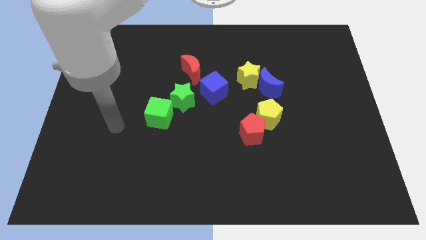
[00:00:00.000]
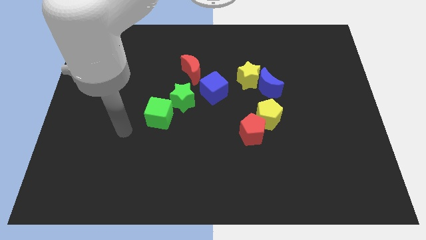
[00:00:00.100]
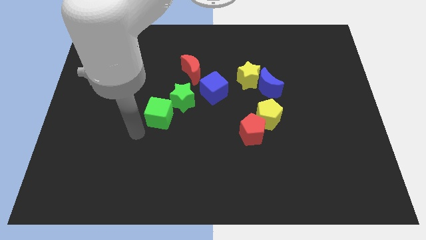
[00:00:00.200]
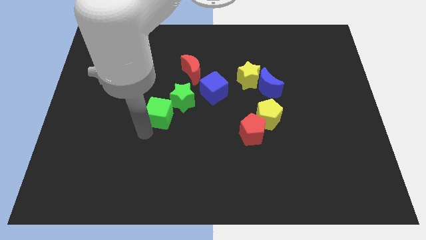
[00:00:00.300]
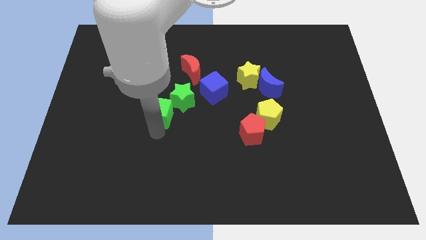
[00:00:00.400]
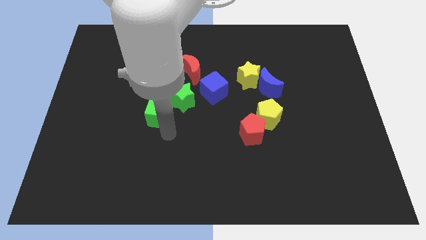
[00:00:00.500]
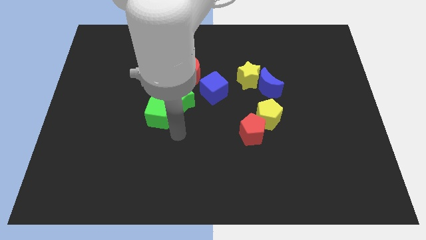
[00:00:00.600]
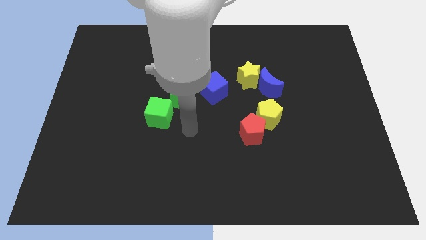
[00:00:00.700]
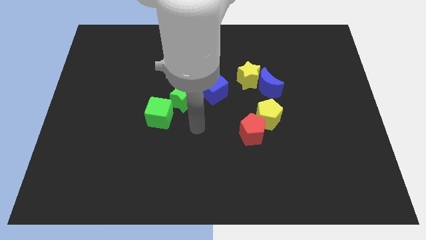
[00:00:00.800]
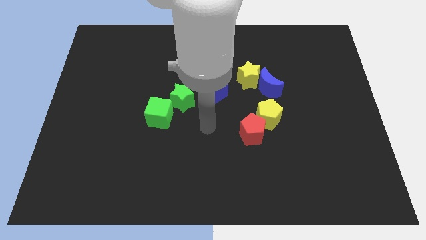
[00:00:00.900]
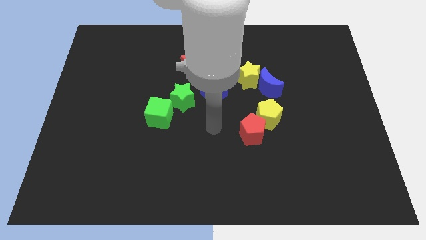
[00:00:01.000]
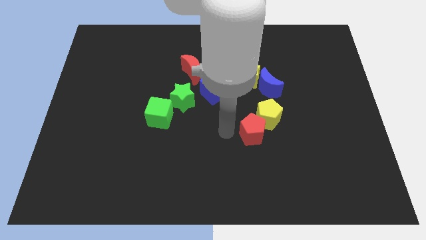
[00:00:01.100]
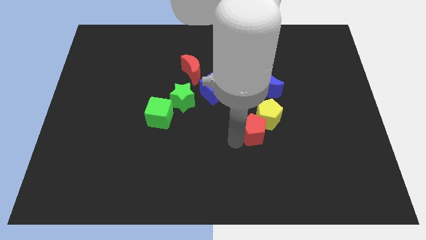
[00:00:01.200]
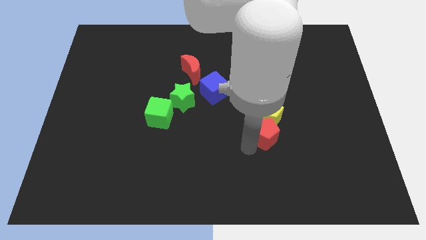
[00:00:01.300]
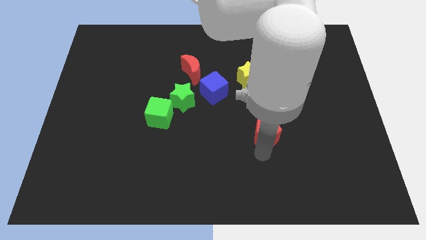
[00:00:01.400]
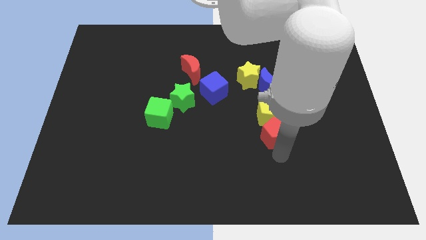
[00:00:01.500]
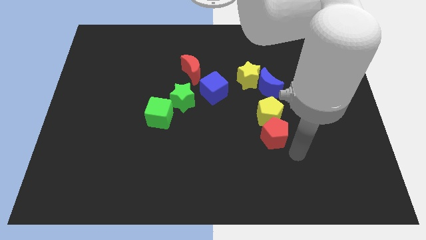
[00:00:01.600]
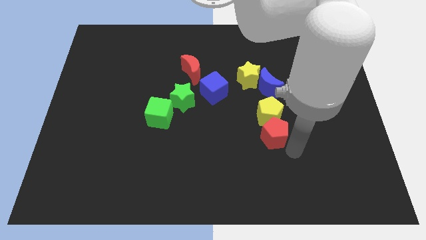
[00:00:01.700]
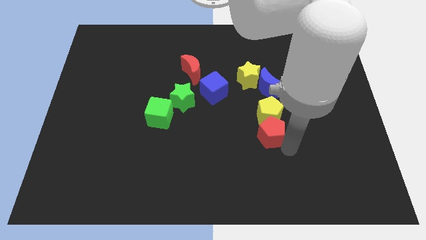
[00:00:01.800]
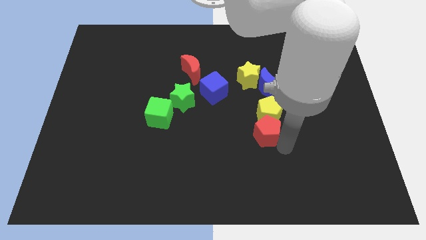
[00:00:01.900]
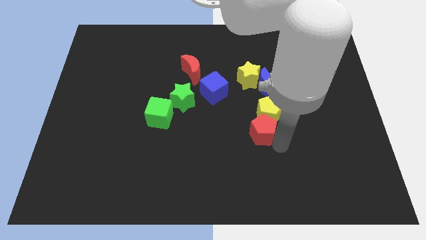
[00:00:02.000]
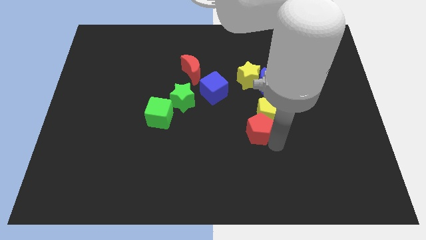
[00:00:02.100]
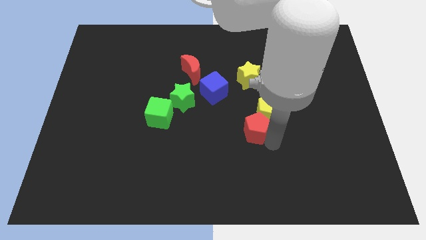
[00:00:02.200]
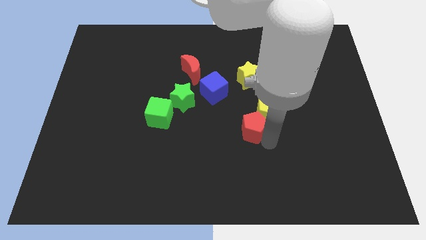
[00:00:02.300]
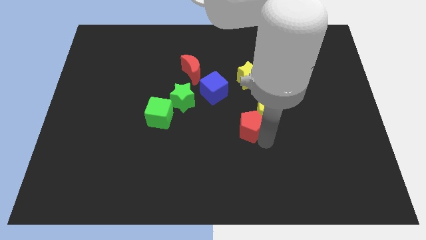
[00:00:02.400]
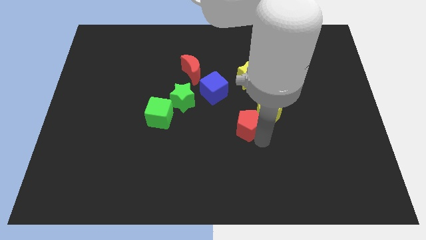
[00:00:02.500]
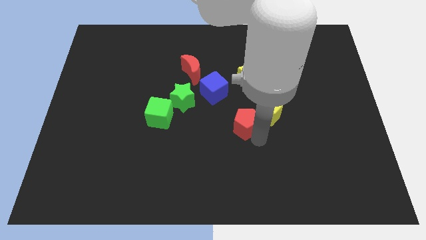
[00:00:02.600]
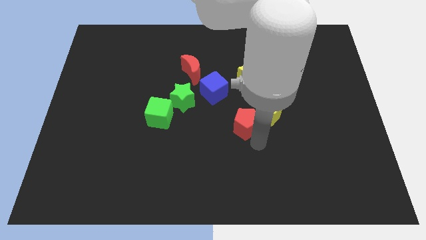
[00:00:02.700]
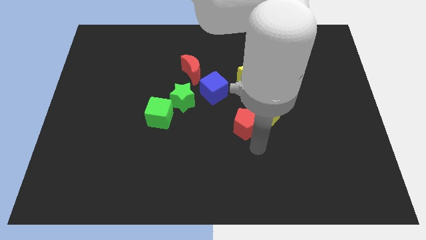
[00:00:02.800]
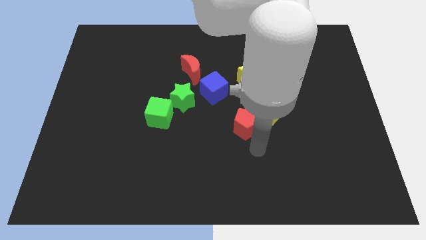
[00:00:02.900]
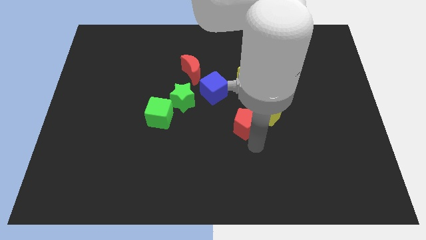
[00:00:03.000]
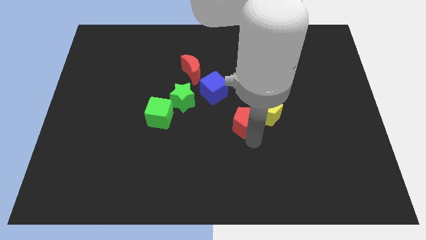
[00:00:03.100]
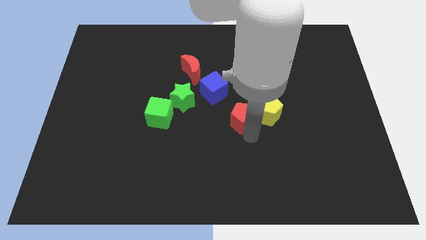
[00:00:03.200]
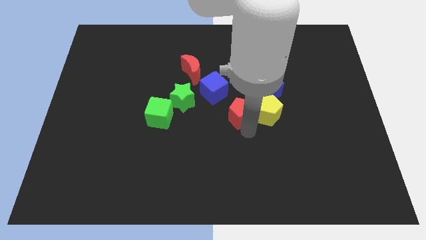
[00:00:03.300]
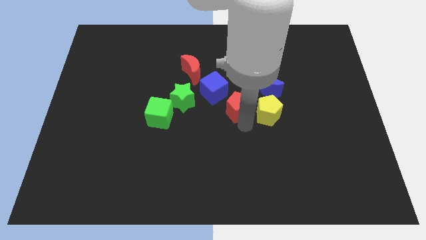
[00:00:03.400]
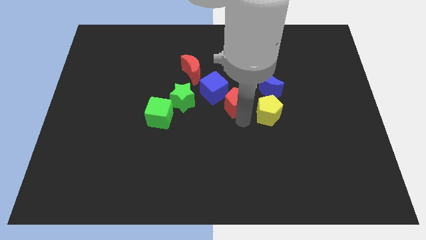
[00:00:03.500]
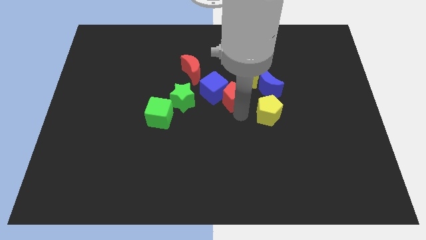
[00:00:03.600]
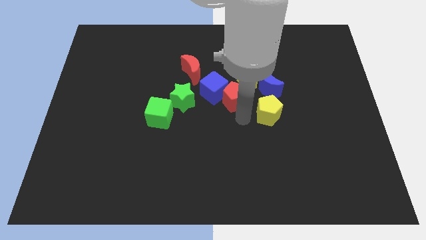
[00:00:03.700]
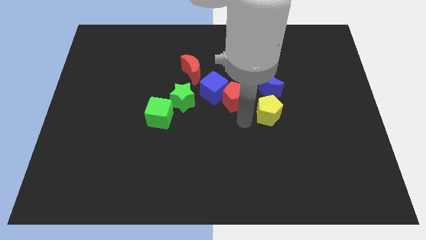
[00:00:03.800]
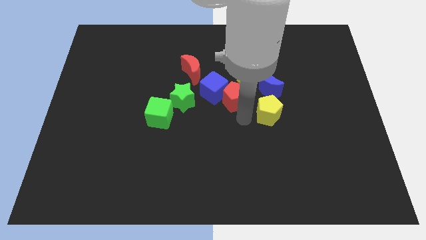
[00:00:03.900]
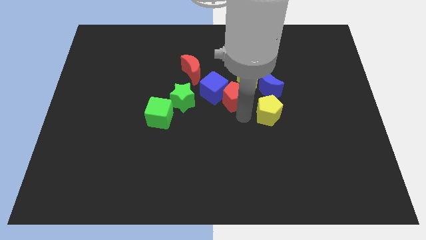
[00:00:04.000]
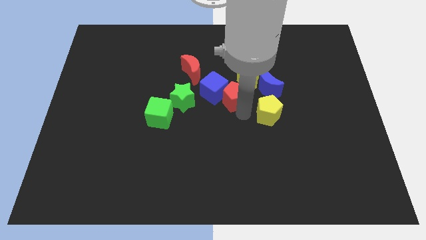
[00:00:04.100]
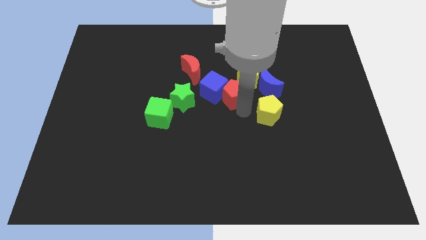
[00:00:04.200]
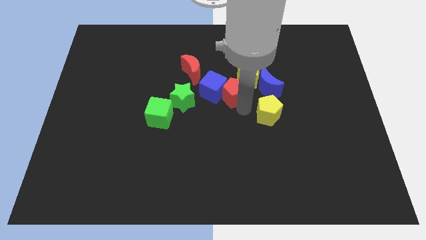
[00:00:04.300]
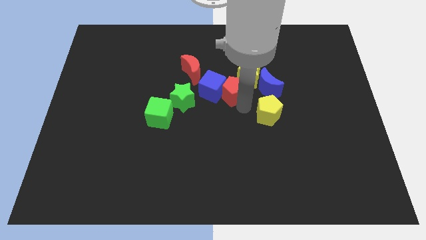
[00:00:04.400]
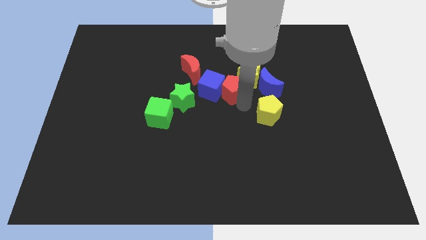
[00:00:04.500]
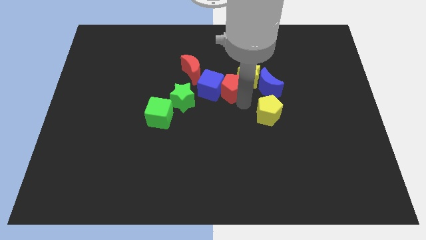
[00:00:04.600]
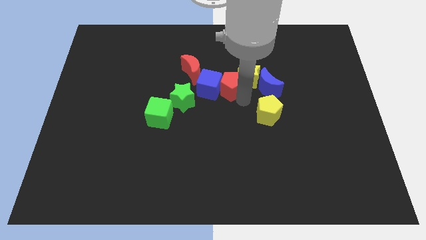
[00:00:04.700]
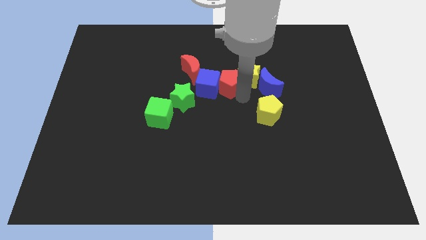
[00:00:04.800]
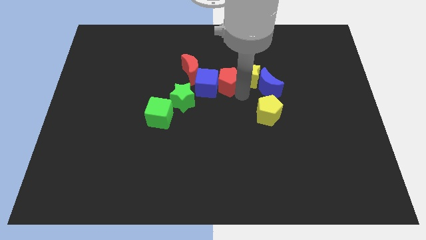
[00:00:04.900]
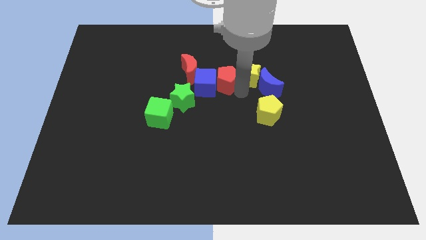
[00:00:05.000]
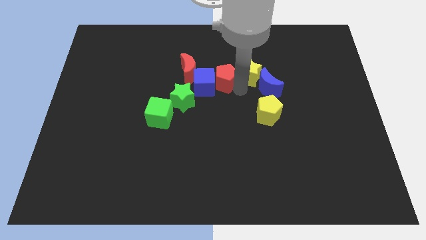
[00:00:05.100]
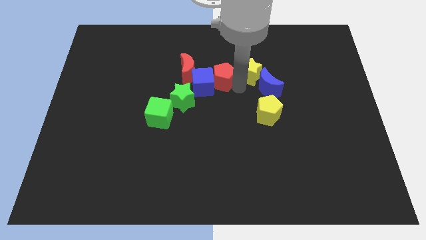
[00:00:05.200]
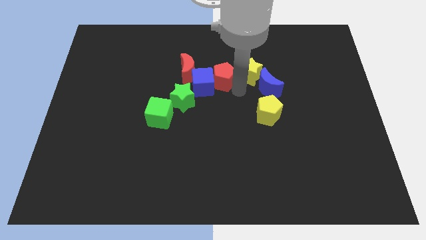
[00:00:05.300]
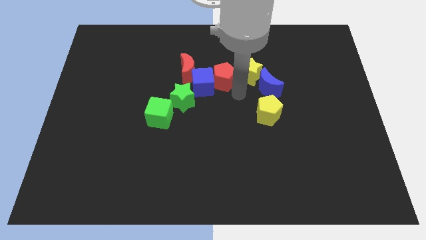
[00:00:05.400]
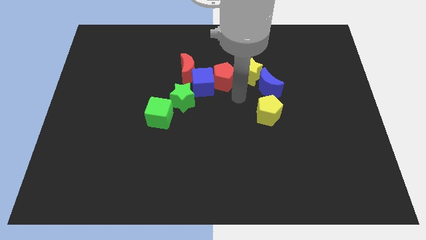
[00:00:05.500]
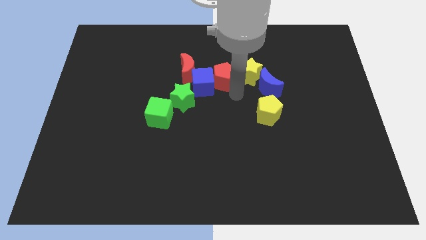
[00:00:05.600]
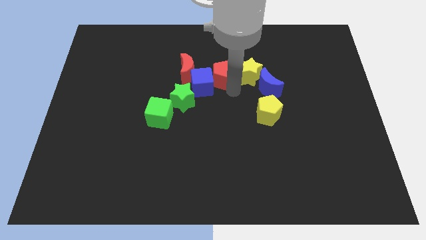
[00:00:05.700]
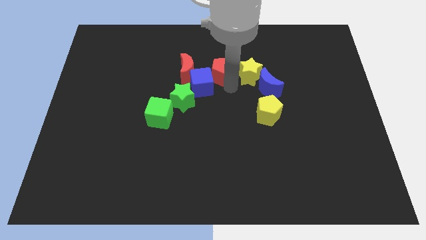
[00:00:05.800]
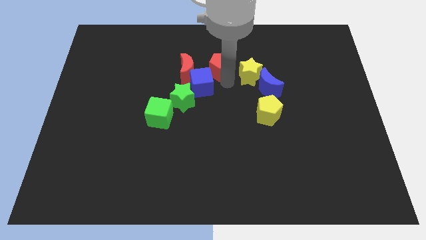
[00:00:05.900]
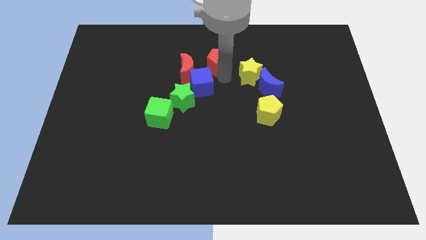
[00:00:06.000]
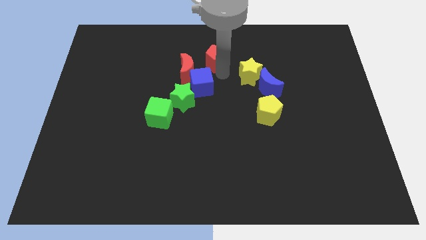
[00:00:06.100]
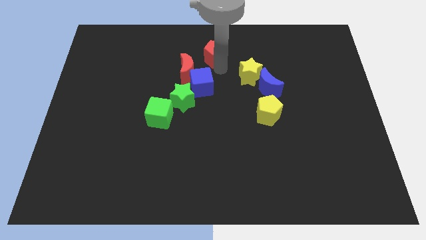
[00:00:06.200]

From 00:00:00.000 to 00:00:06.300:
push the red pentagon to the towards your base

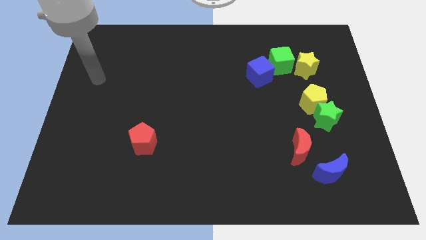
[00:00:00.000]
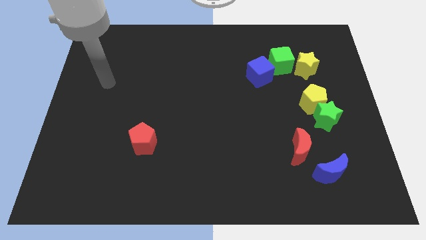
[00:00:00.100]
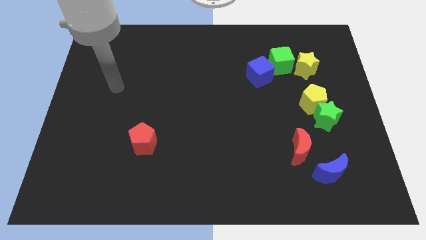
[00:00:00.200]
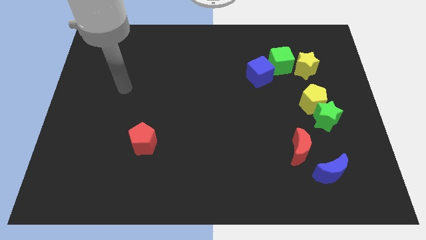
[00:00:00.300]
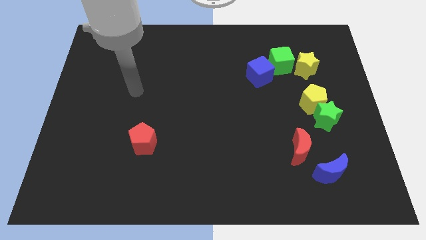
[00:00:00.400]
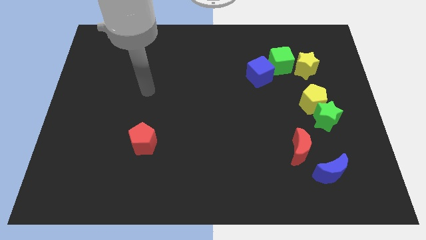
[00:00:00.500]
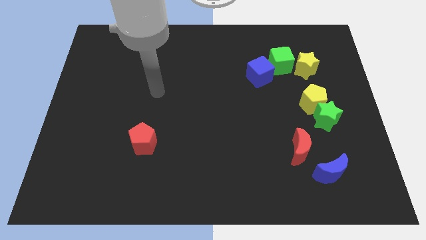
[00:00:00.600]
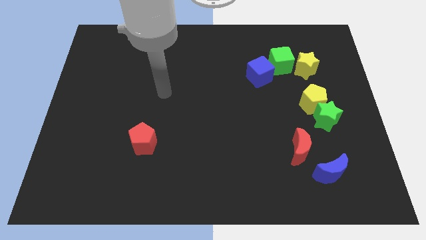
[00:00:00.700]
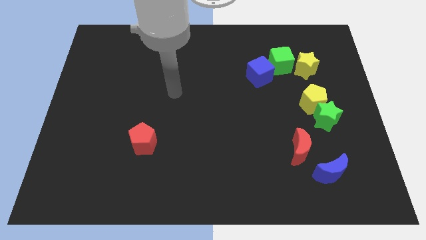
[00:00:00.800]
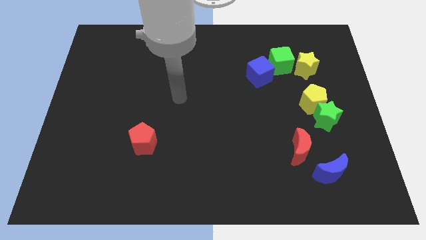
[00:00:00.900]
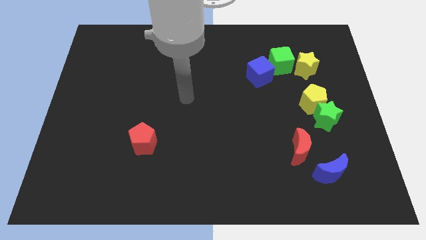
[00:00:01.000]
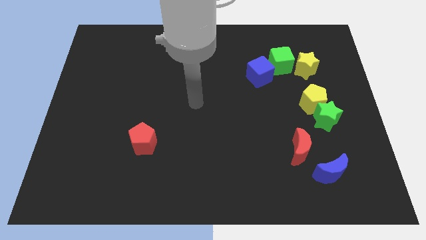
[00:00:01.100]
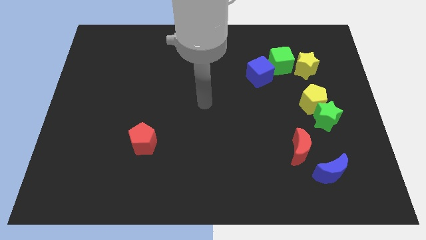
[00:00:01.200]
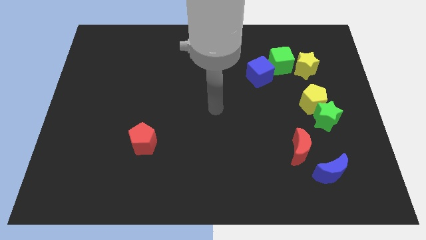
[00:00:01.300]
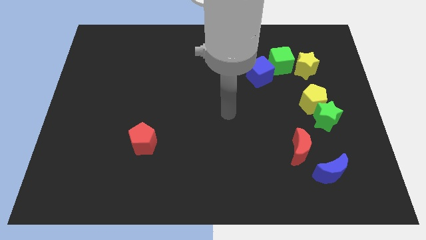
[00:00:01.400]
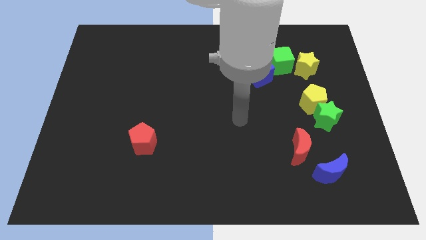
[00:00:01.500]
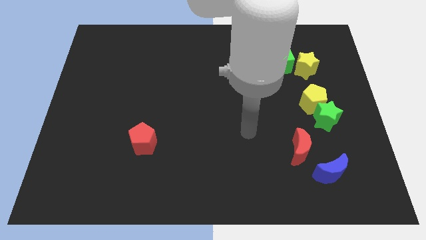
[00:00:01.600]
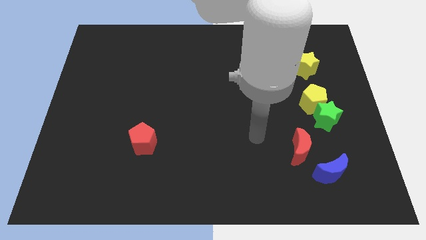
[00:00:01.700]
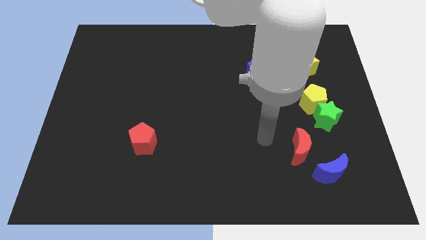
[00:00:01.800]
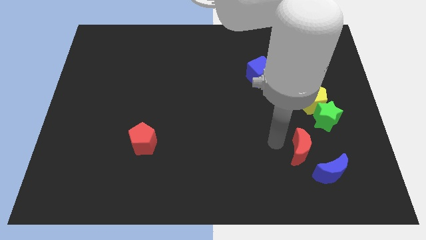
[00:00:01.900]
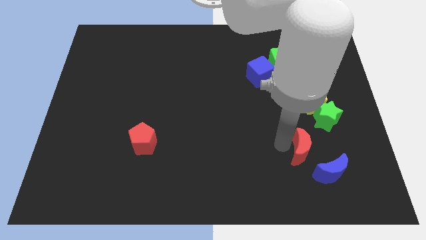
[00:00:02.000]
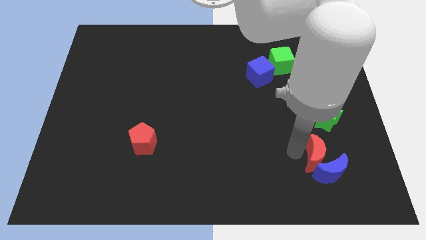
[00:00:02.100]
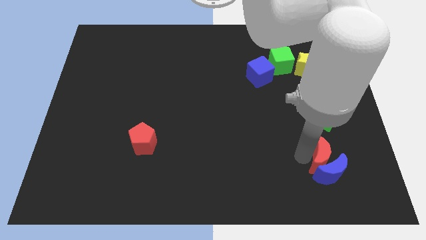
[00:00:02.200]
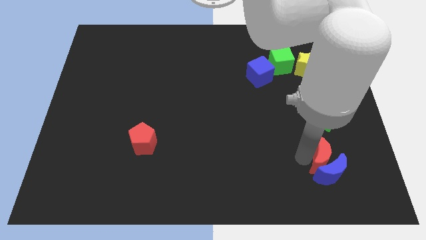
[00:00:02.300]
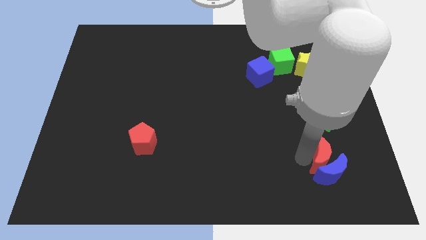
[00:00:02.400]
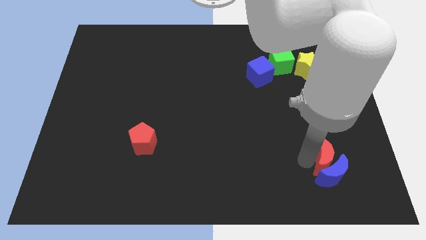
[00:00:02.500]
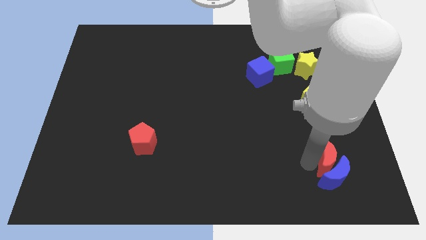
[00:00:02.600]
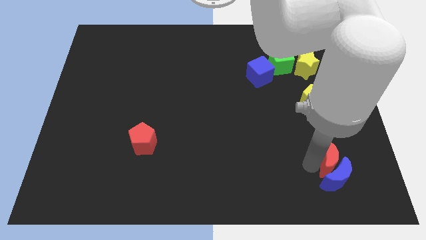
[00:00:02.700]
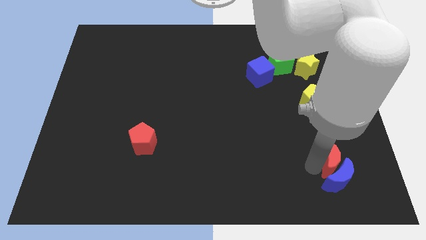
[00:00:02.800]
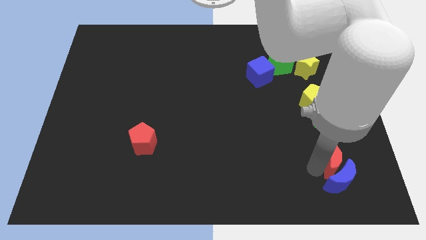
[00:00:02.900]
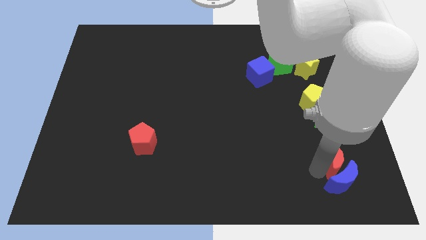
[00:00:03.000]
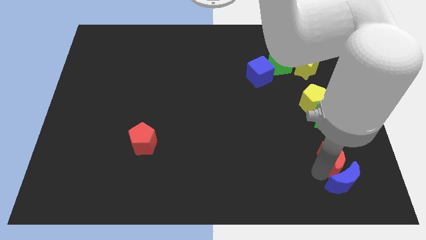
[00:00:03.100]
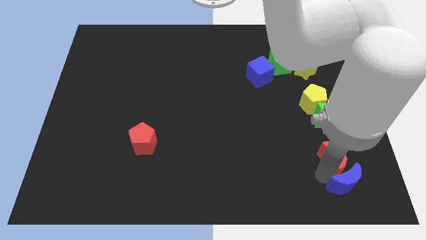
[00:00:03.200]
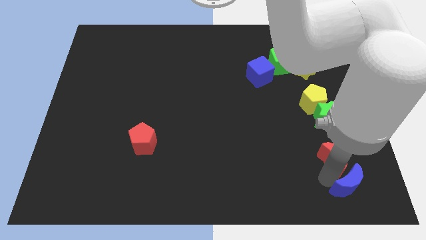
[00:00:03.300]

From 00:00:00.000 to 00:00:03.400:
push the blue moon to the bottom right
